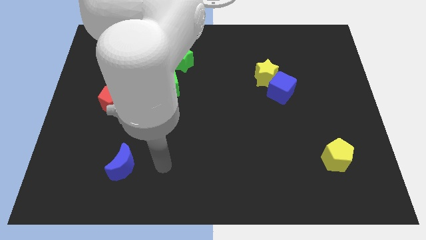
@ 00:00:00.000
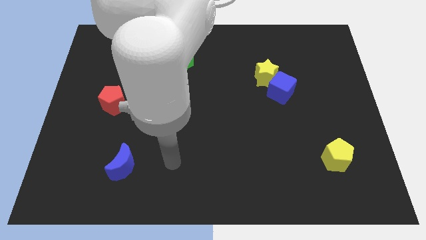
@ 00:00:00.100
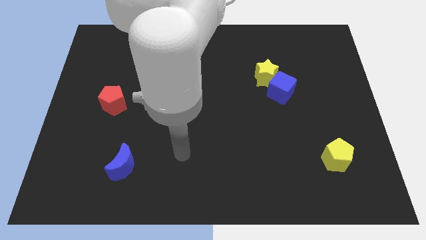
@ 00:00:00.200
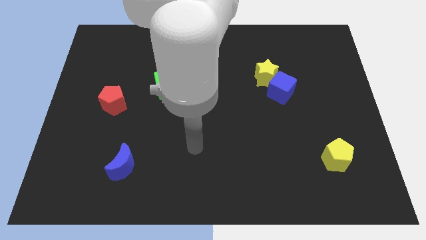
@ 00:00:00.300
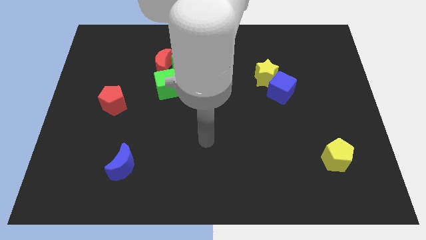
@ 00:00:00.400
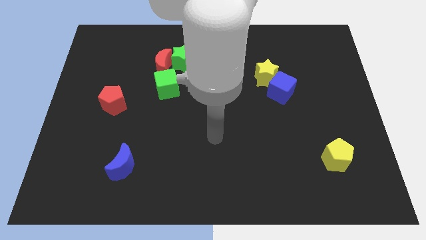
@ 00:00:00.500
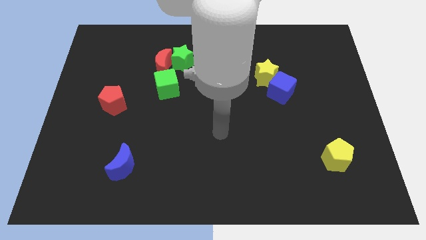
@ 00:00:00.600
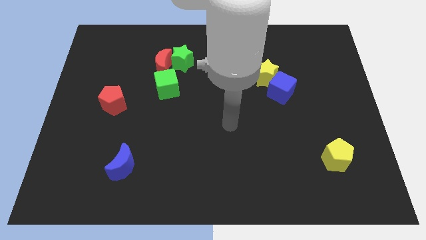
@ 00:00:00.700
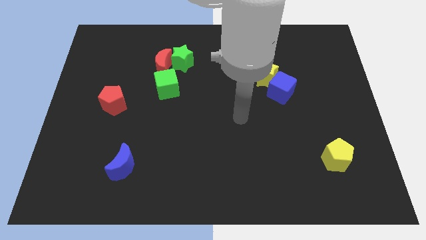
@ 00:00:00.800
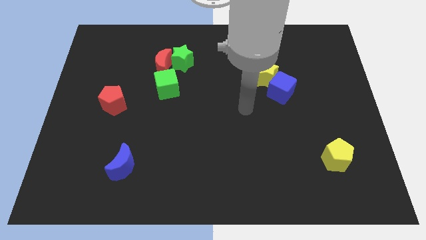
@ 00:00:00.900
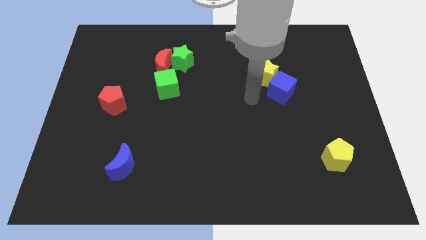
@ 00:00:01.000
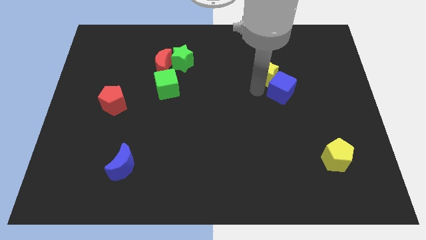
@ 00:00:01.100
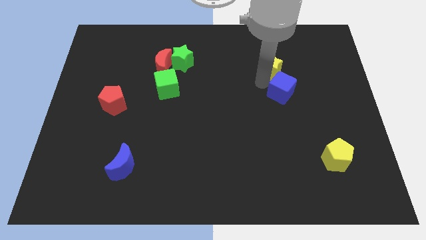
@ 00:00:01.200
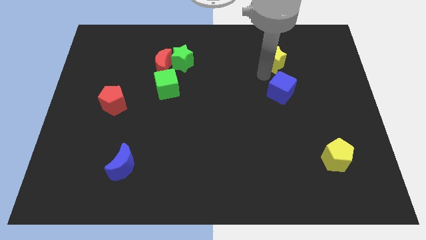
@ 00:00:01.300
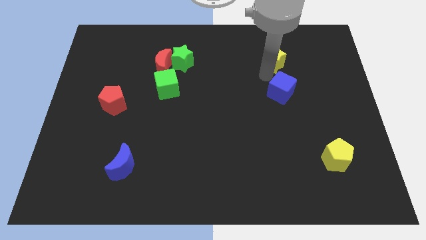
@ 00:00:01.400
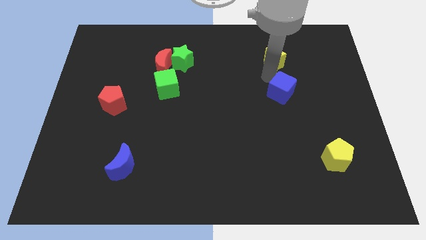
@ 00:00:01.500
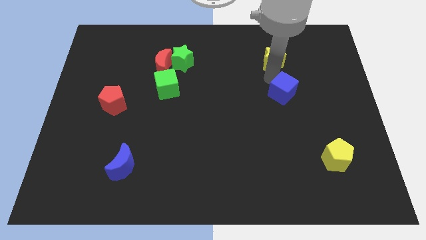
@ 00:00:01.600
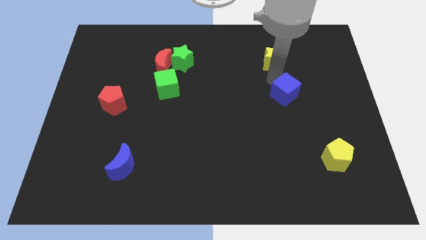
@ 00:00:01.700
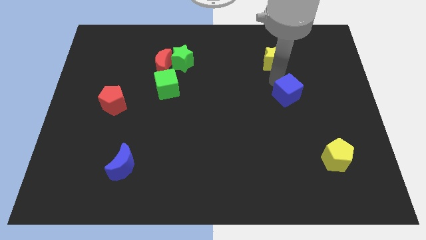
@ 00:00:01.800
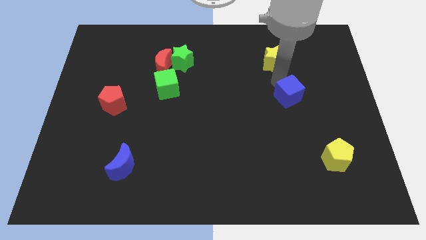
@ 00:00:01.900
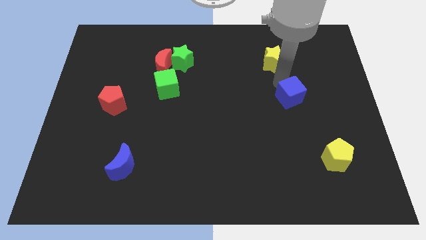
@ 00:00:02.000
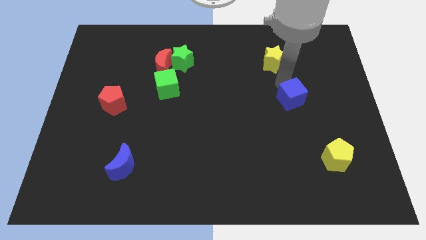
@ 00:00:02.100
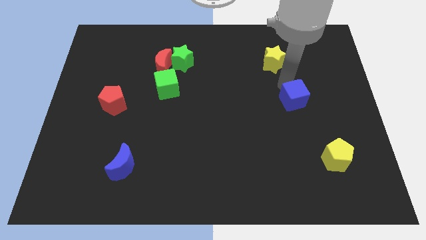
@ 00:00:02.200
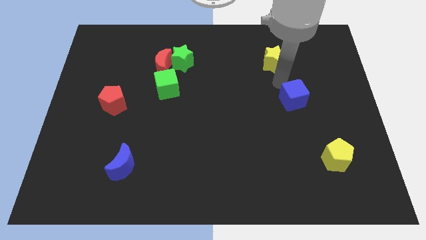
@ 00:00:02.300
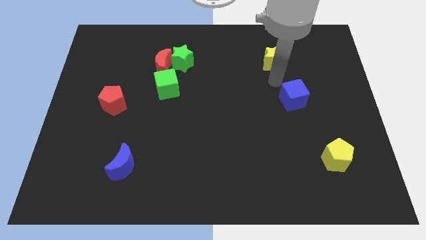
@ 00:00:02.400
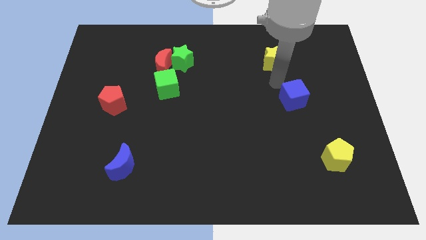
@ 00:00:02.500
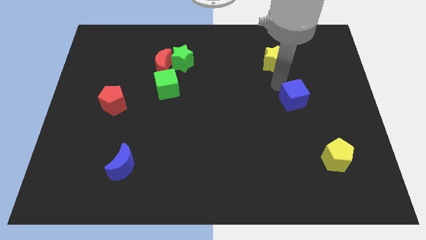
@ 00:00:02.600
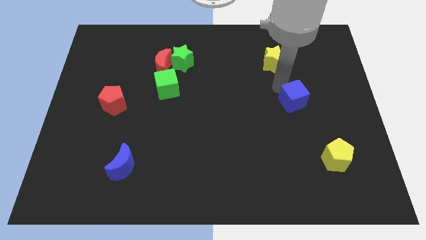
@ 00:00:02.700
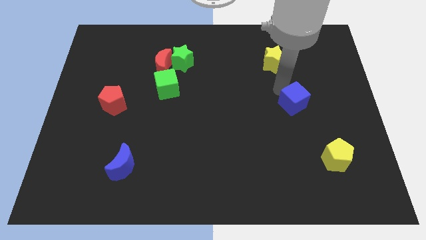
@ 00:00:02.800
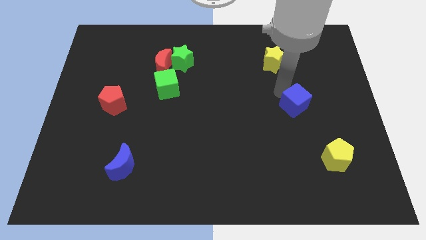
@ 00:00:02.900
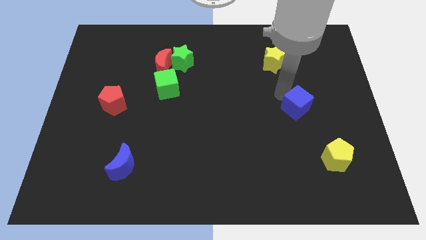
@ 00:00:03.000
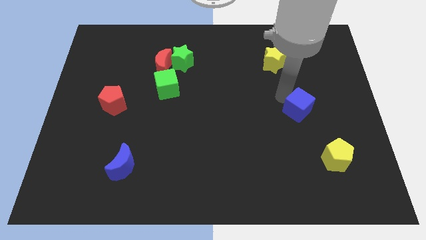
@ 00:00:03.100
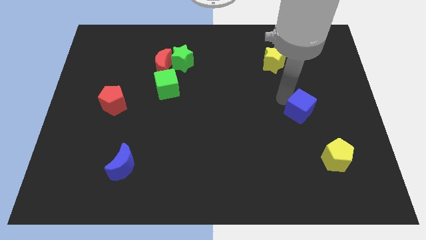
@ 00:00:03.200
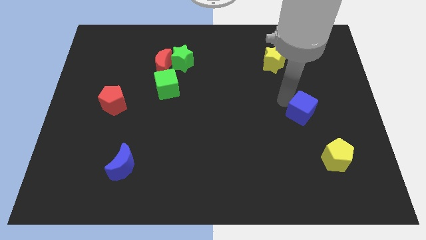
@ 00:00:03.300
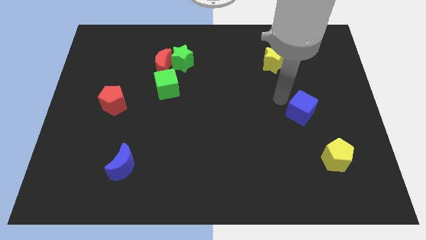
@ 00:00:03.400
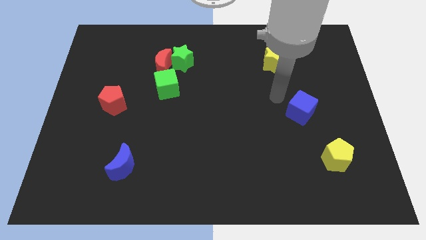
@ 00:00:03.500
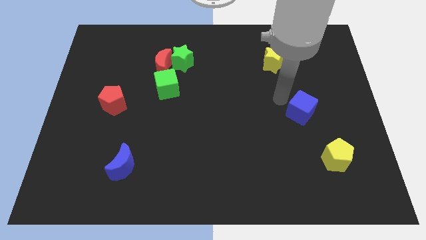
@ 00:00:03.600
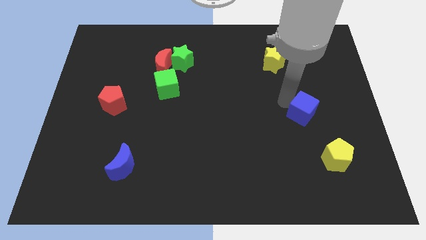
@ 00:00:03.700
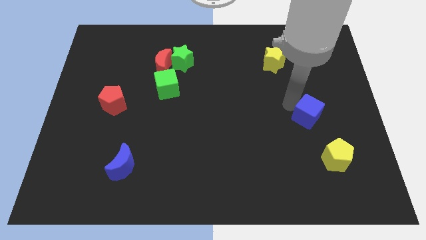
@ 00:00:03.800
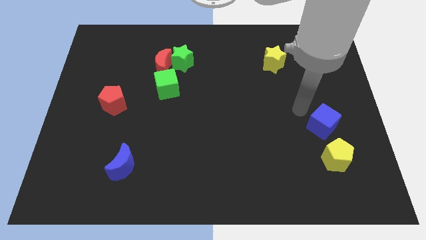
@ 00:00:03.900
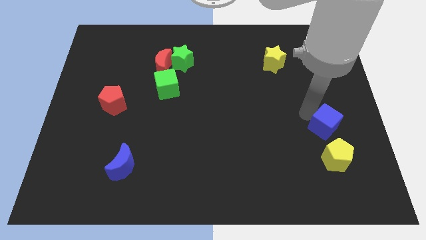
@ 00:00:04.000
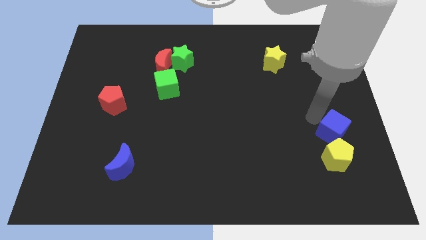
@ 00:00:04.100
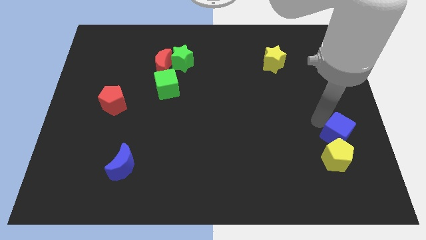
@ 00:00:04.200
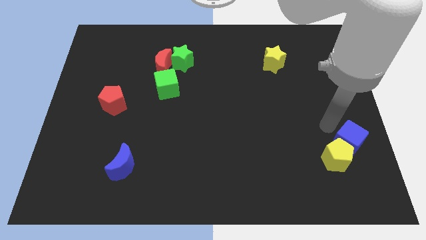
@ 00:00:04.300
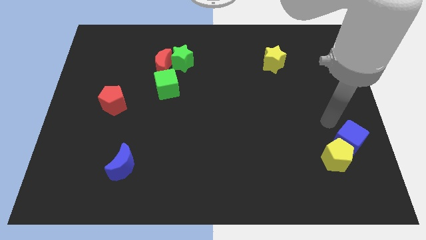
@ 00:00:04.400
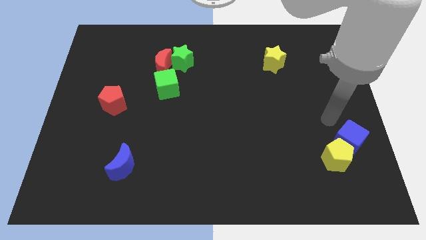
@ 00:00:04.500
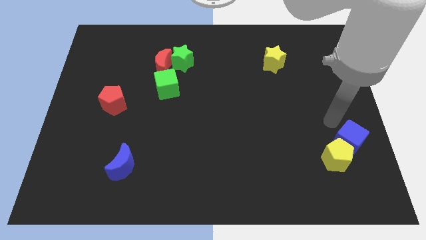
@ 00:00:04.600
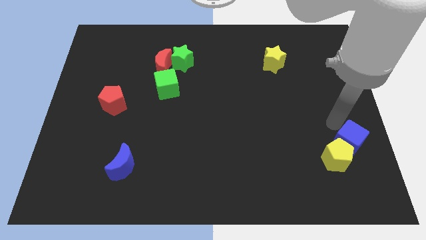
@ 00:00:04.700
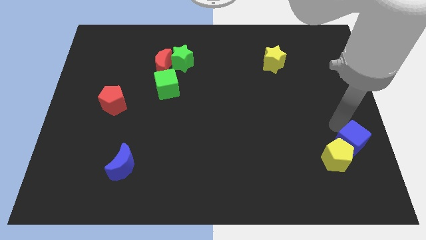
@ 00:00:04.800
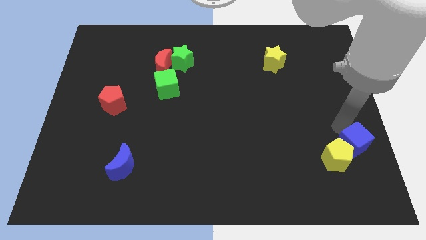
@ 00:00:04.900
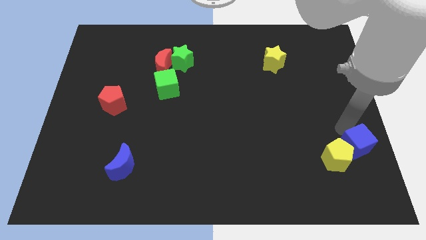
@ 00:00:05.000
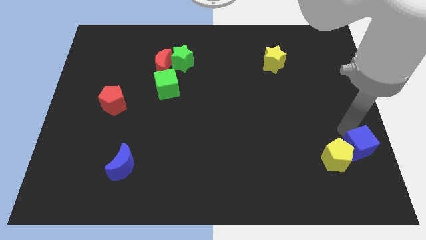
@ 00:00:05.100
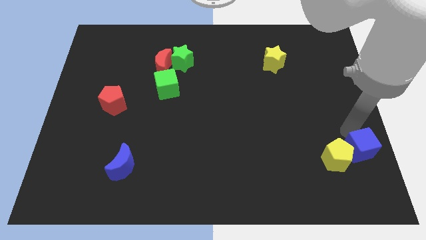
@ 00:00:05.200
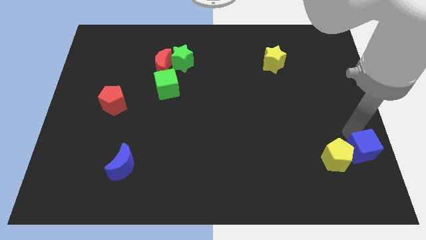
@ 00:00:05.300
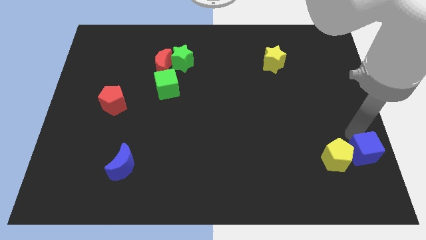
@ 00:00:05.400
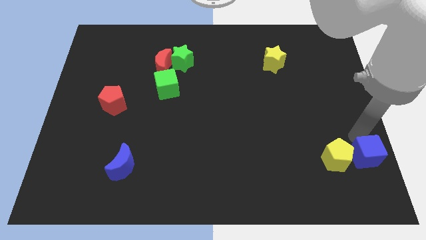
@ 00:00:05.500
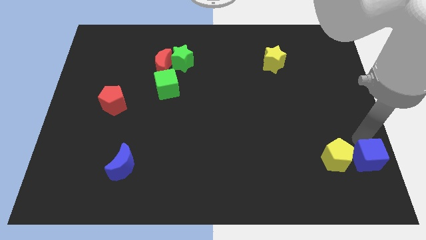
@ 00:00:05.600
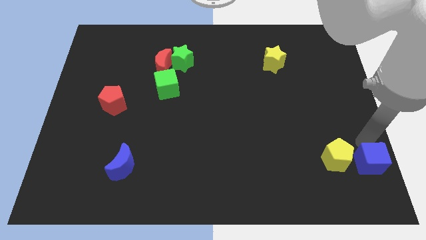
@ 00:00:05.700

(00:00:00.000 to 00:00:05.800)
move the blue cube to the bottom right corner
